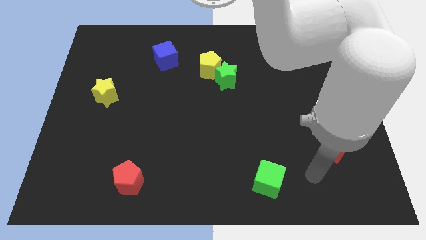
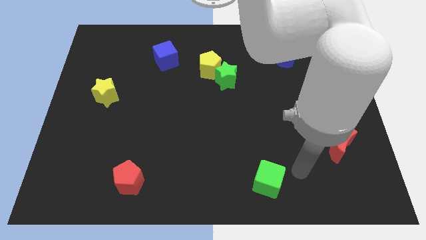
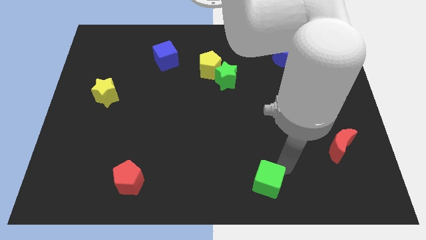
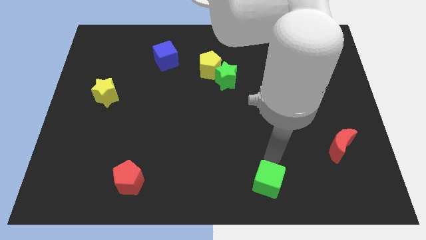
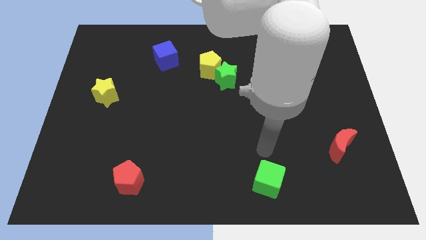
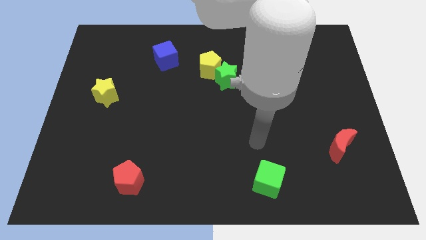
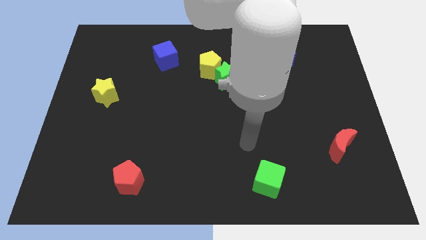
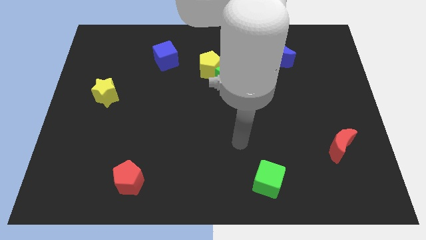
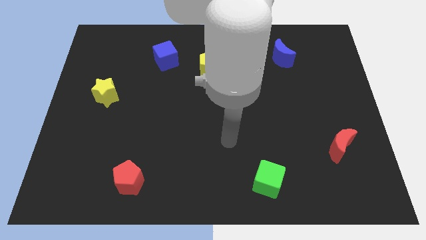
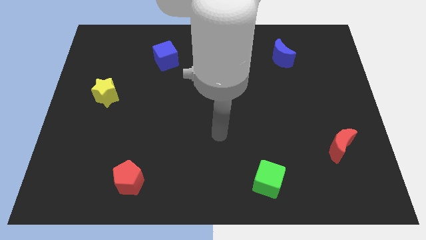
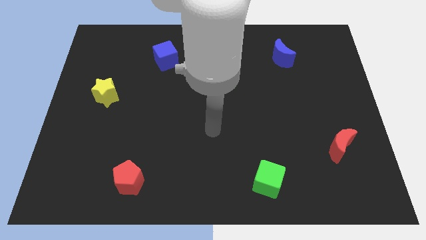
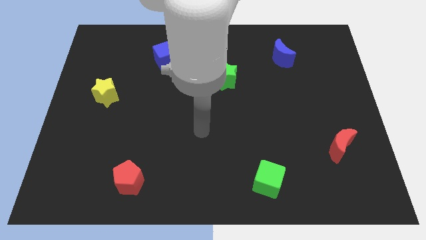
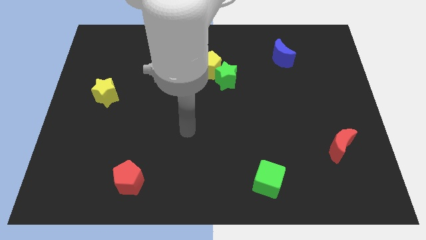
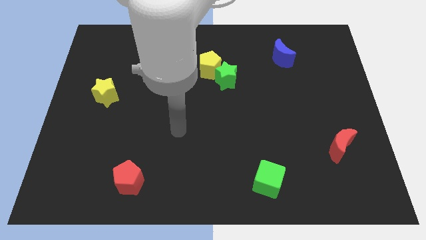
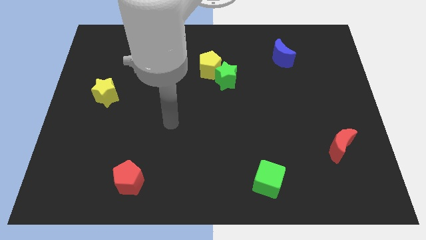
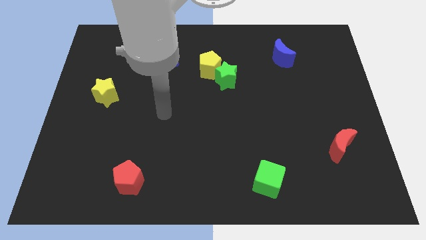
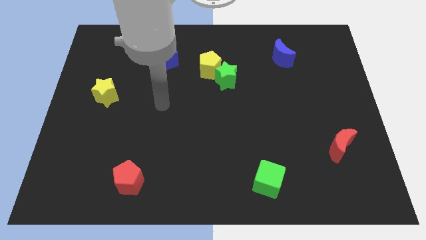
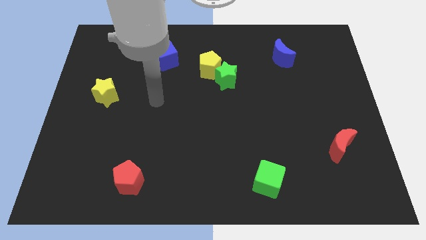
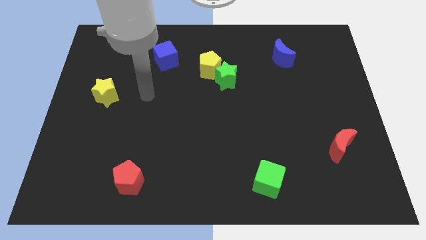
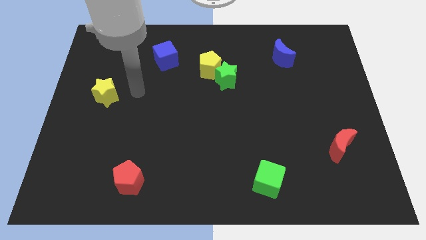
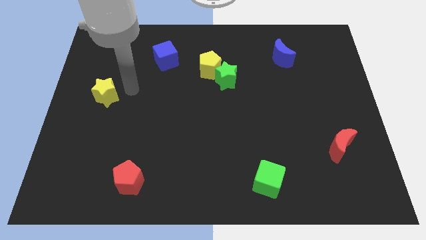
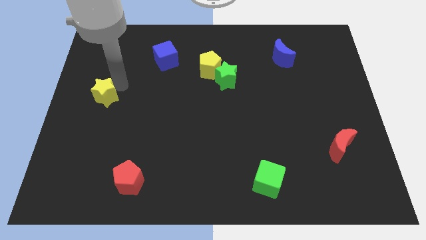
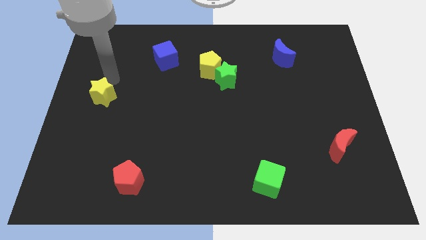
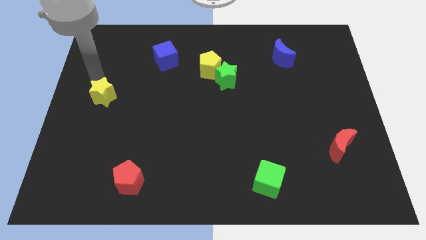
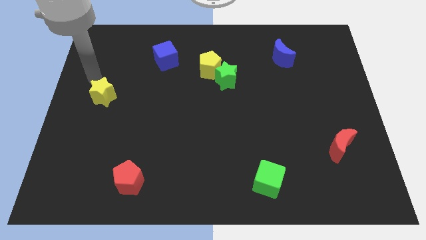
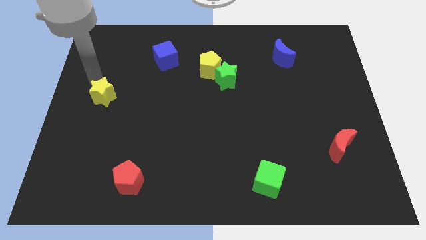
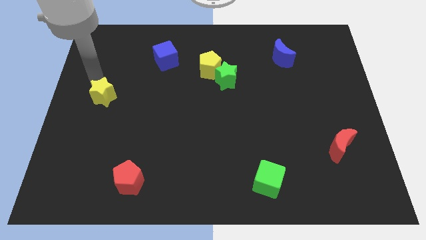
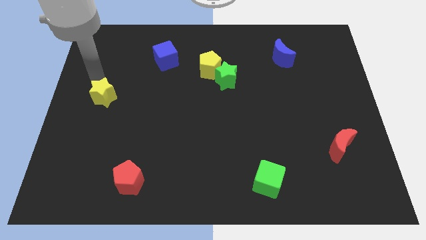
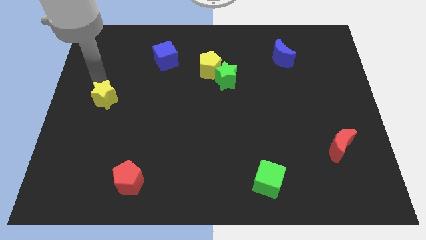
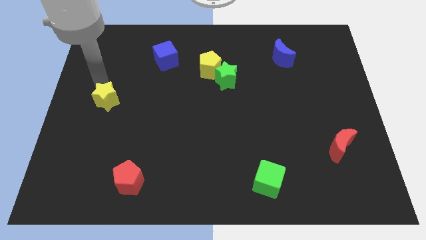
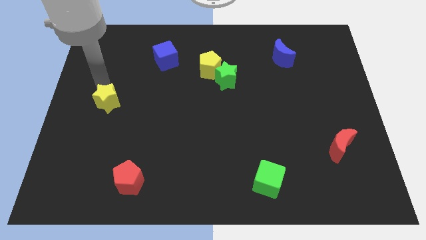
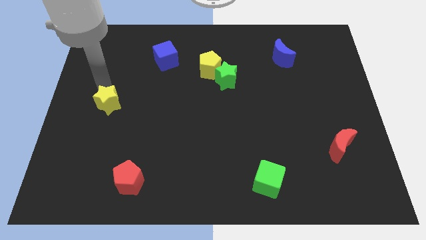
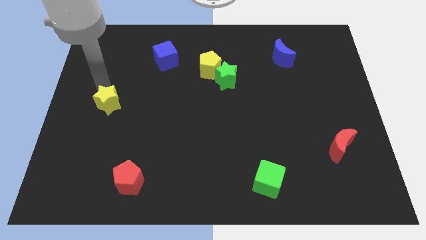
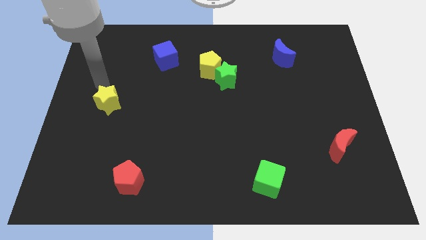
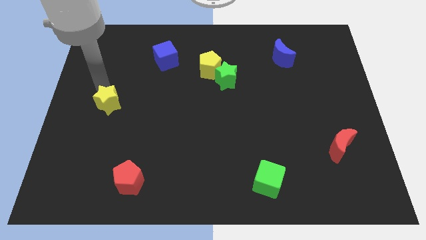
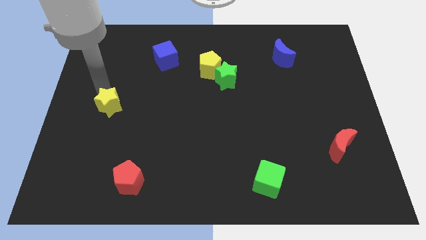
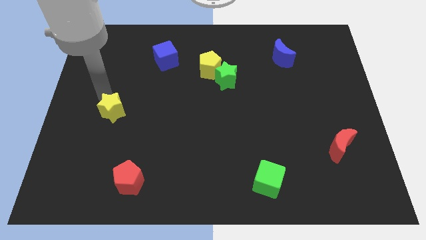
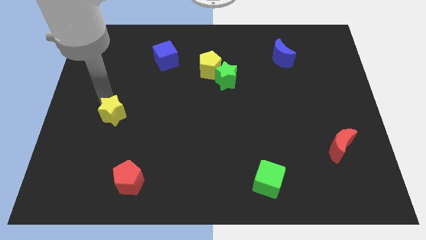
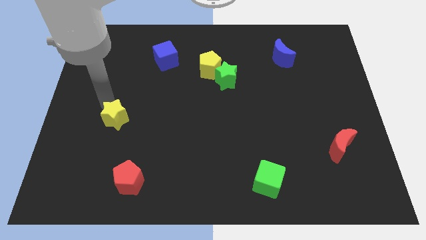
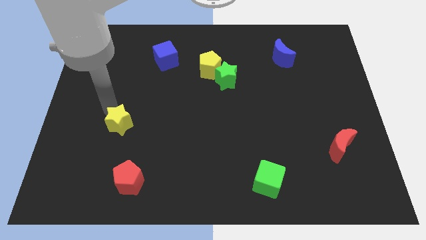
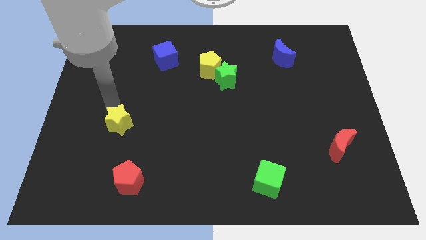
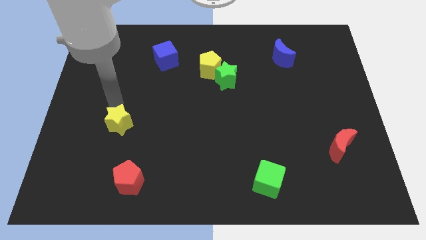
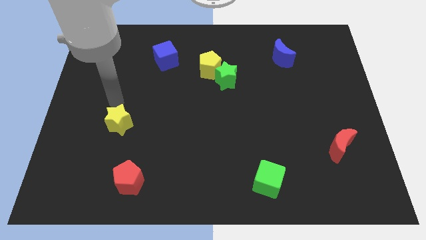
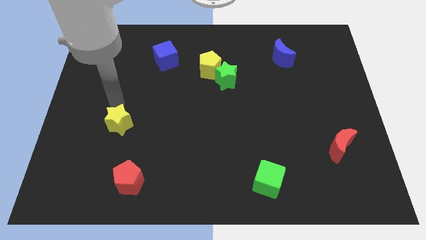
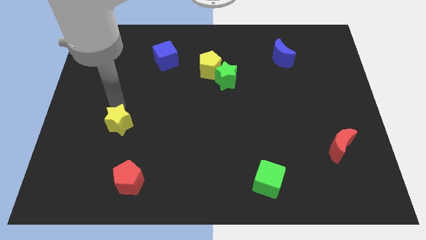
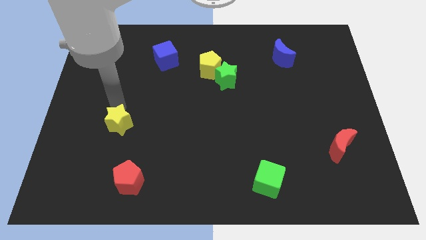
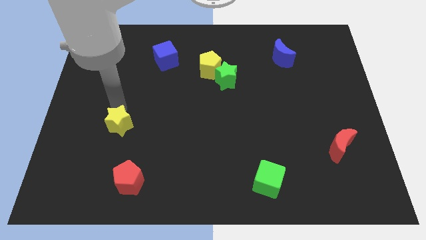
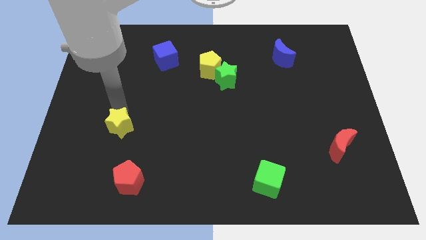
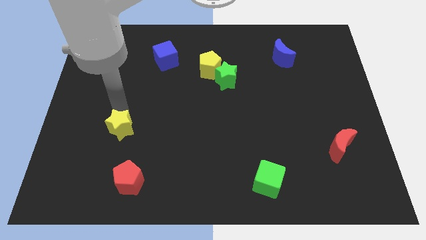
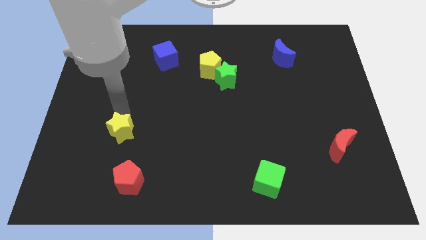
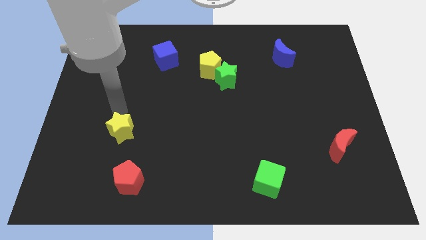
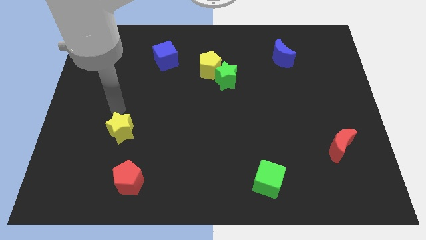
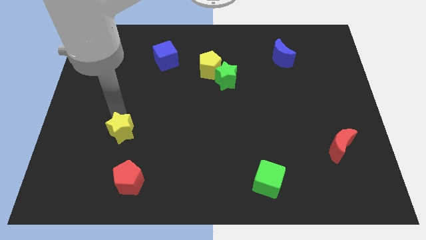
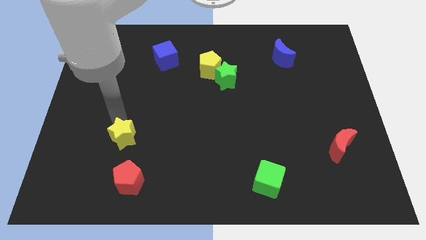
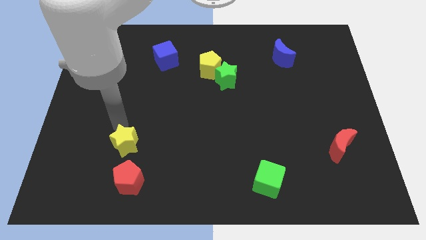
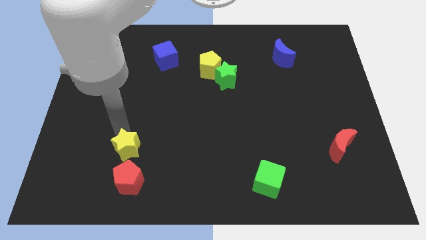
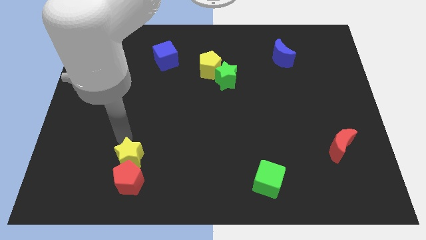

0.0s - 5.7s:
put the yellow star to the red pentagon

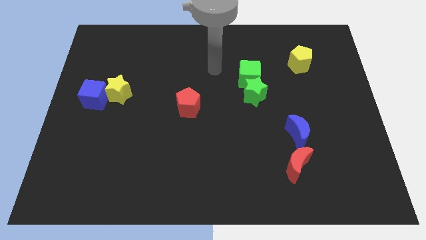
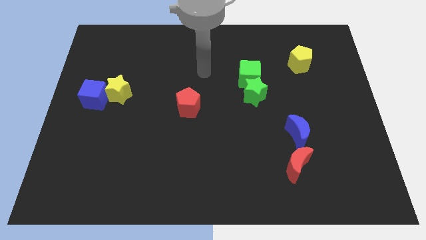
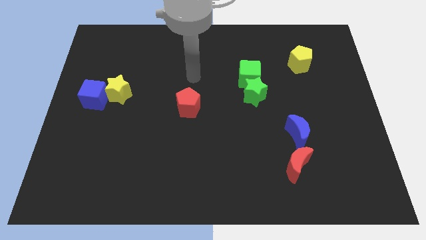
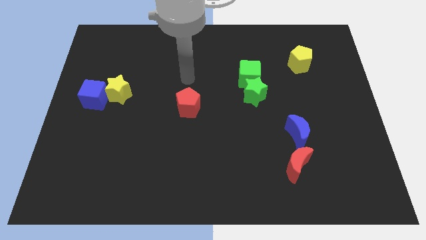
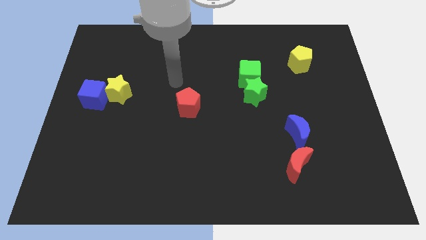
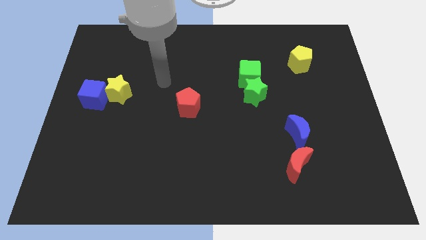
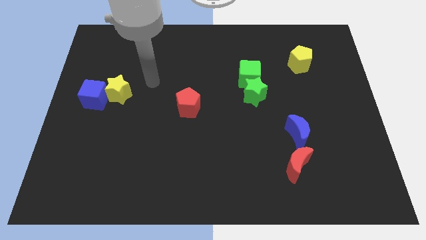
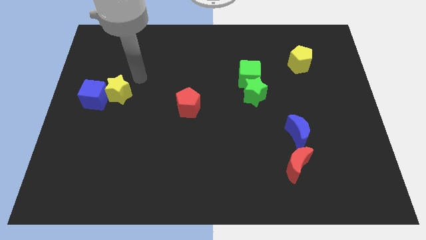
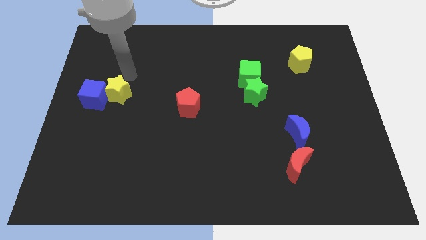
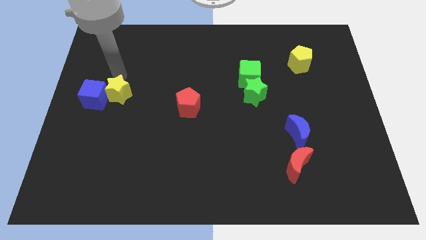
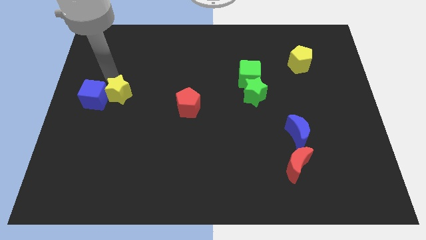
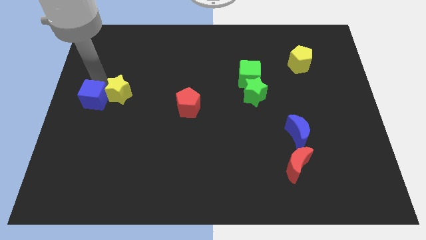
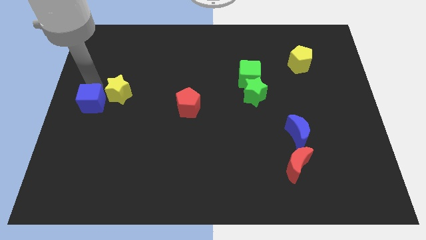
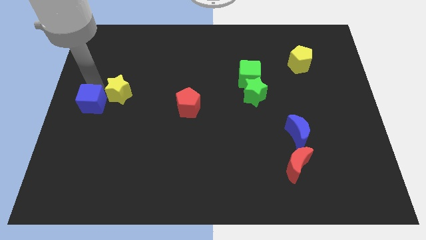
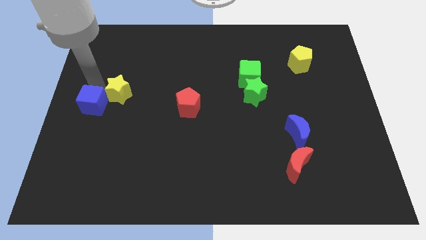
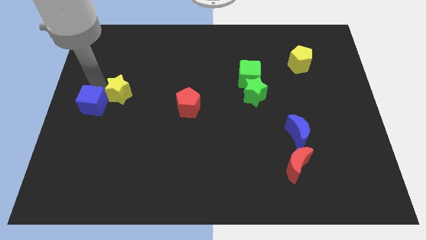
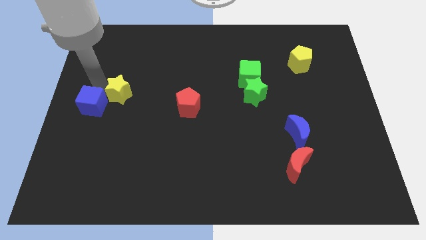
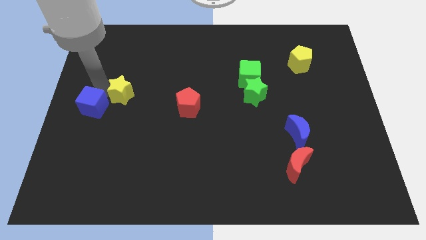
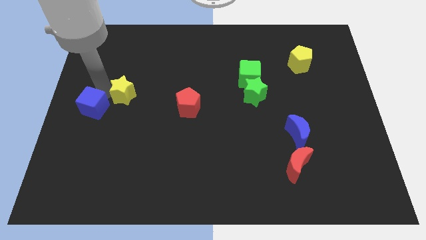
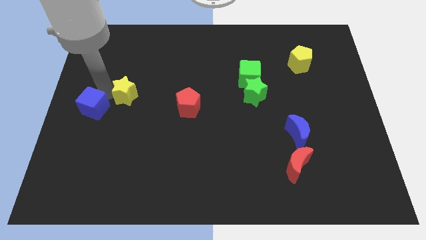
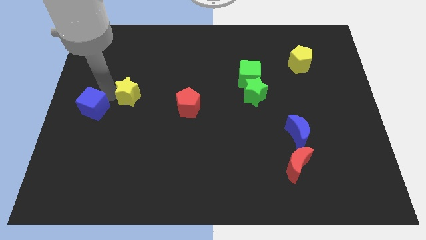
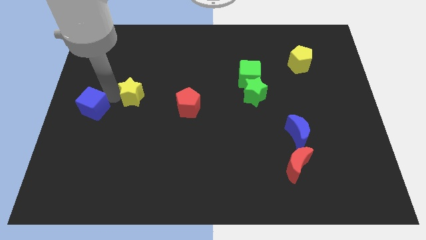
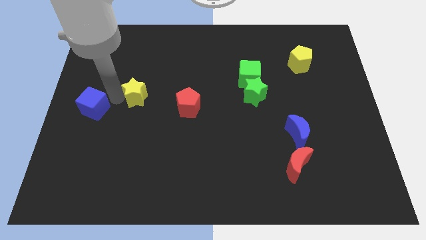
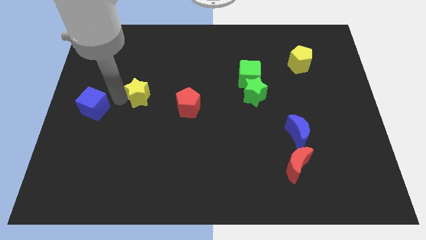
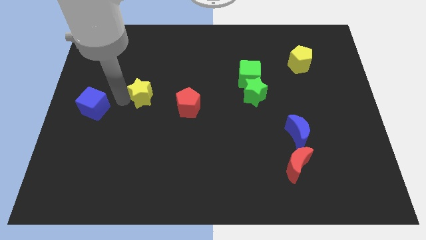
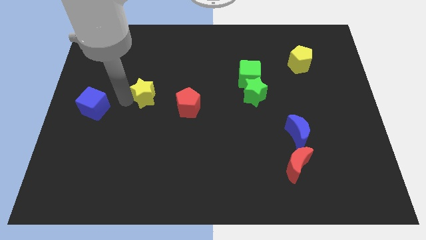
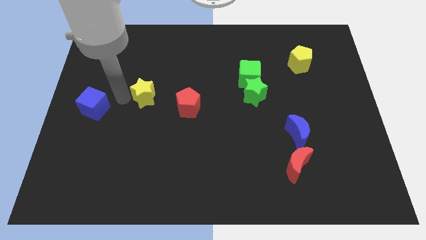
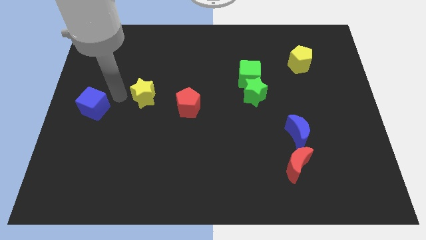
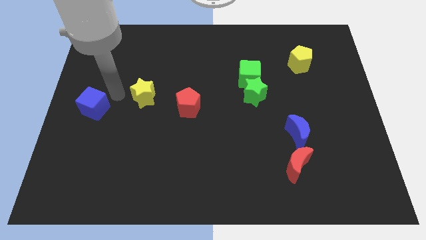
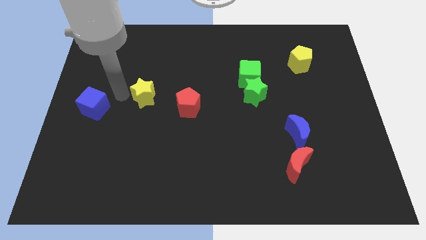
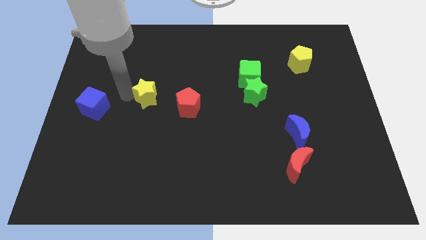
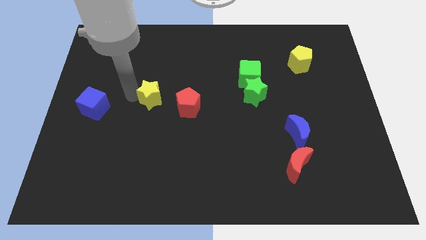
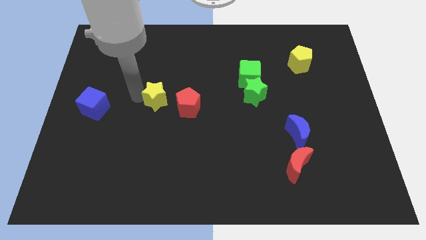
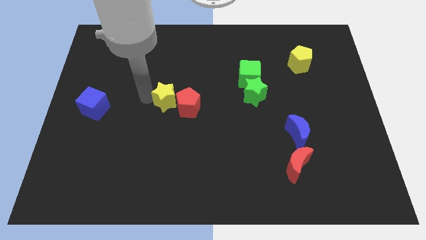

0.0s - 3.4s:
put the yellow star towards the red pentagon
